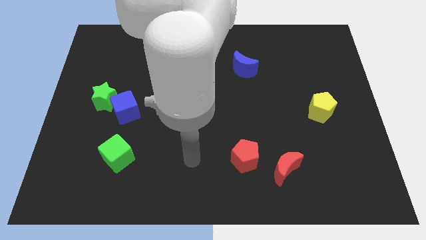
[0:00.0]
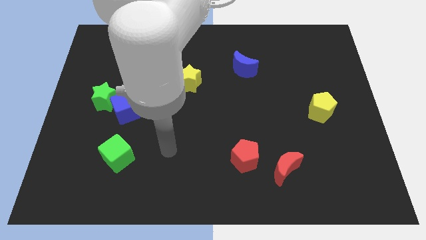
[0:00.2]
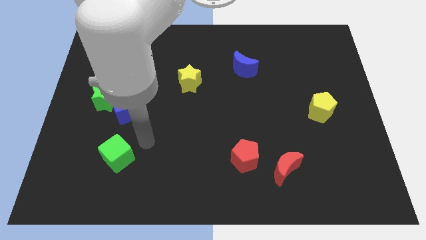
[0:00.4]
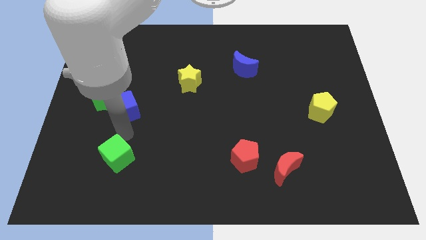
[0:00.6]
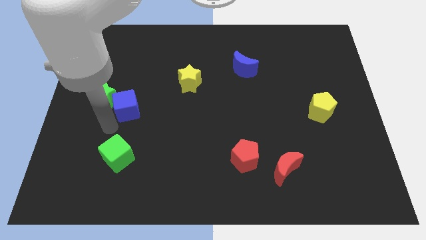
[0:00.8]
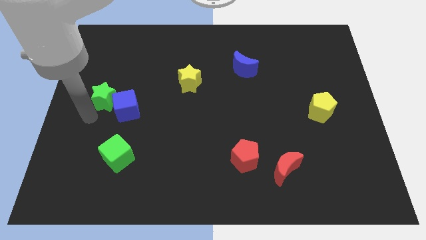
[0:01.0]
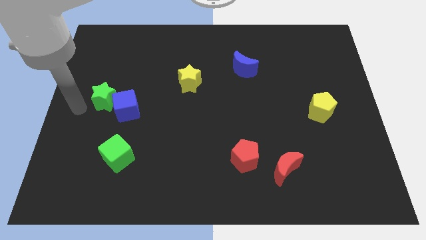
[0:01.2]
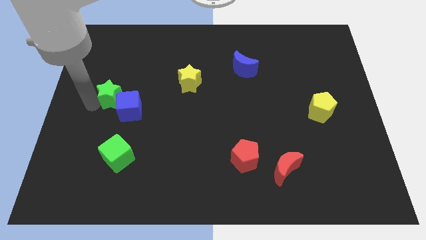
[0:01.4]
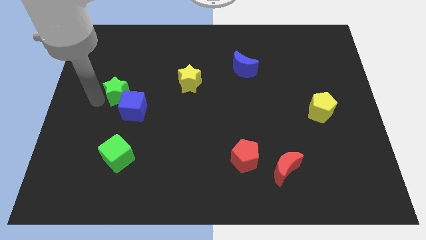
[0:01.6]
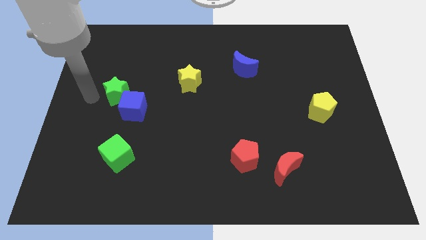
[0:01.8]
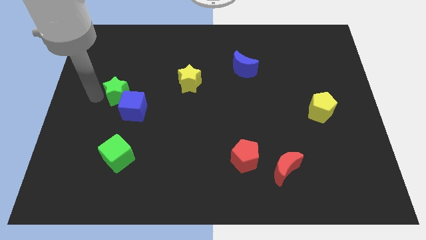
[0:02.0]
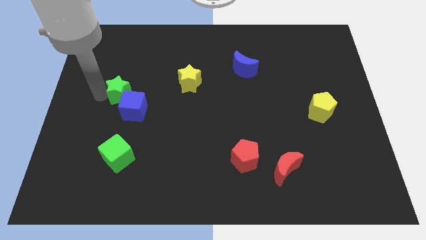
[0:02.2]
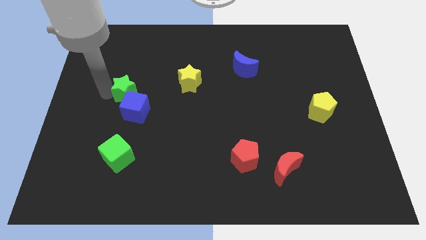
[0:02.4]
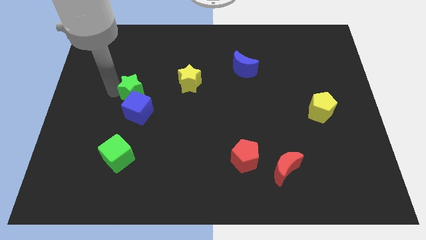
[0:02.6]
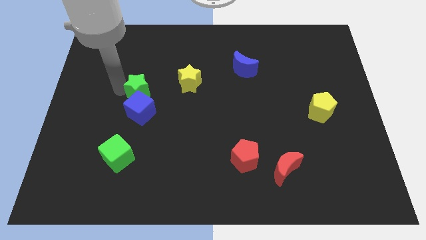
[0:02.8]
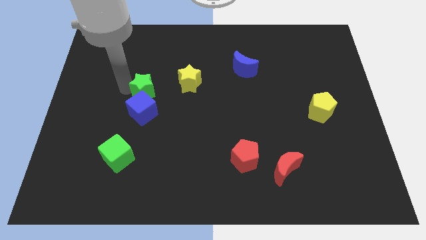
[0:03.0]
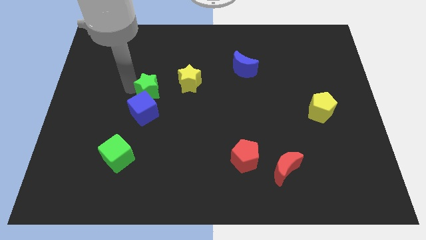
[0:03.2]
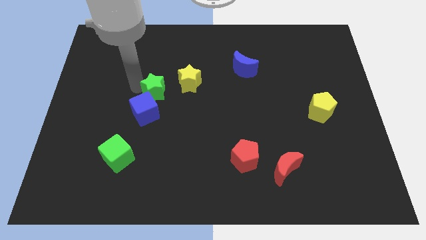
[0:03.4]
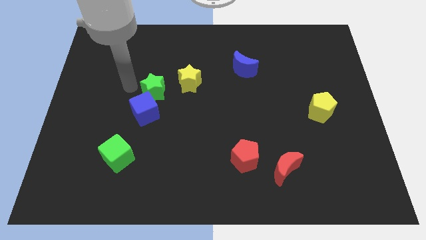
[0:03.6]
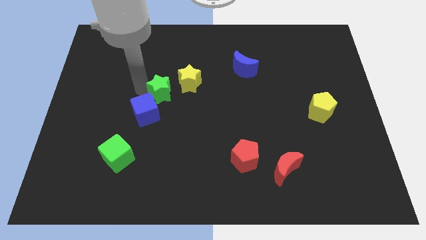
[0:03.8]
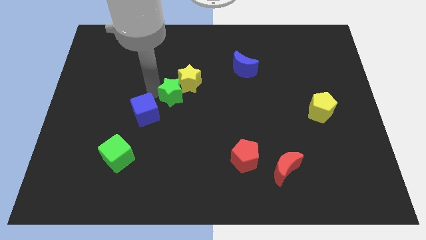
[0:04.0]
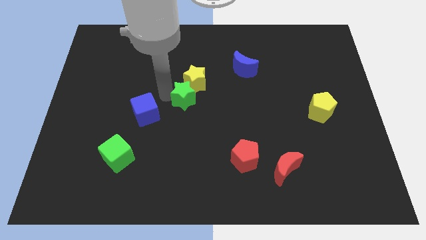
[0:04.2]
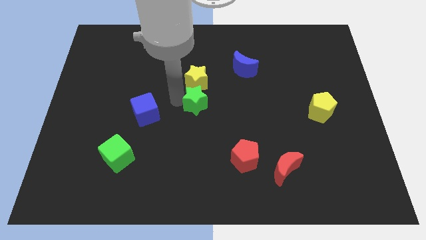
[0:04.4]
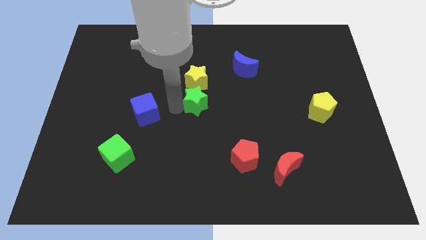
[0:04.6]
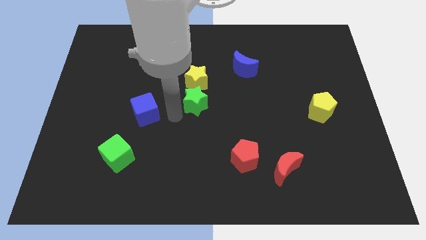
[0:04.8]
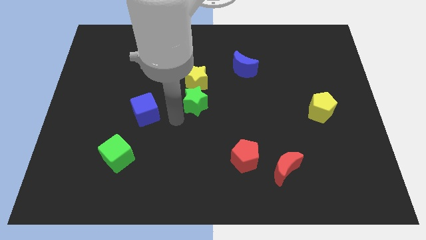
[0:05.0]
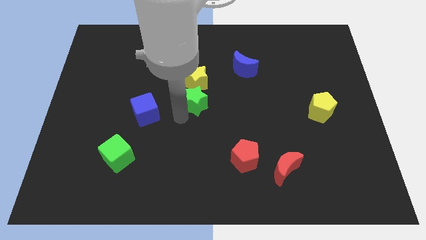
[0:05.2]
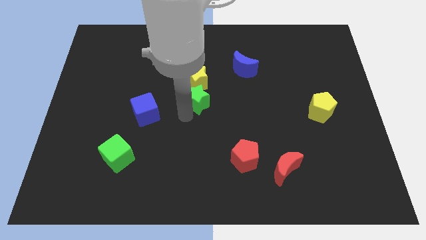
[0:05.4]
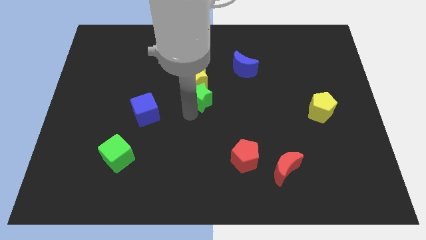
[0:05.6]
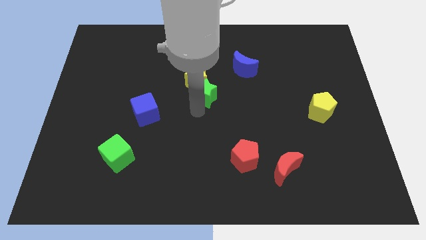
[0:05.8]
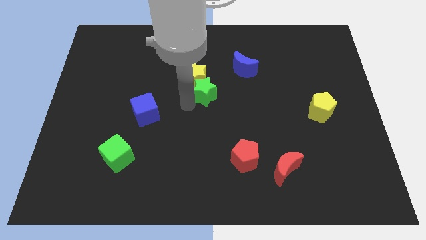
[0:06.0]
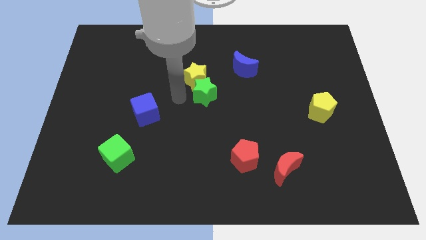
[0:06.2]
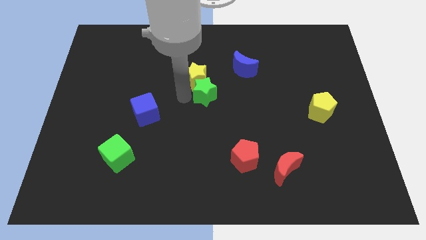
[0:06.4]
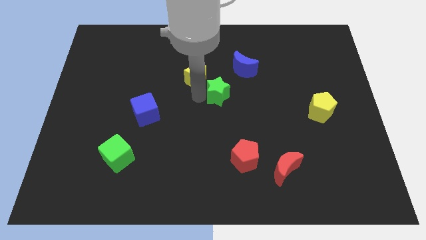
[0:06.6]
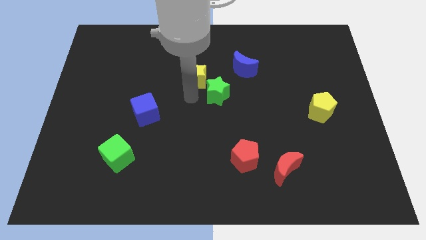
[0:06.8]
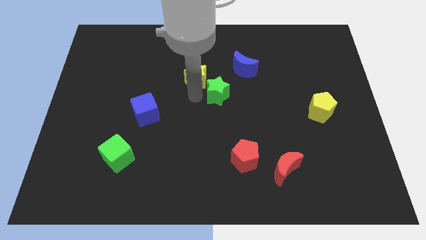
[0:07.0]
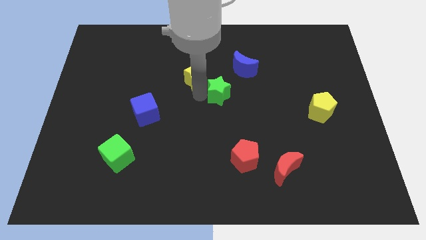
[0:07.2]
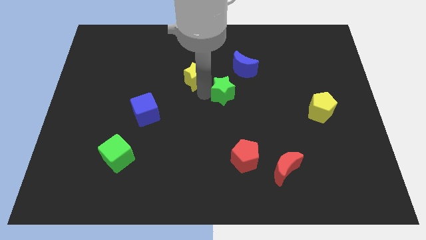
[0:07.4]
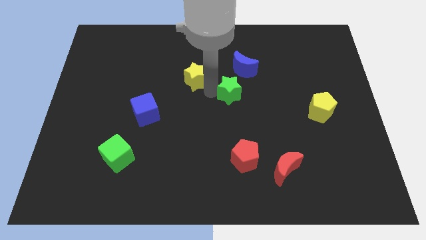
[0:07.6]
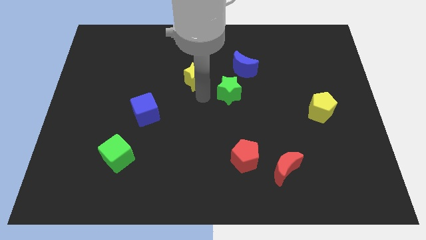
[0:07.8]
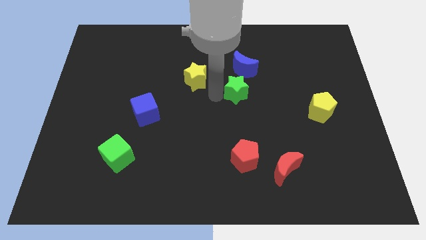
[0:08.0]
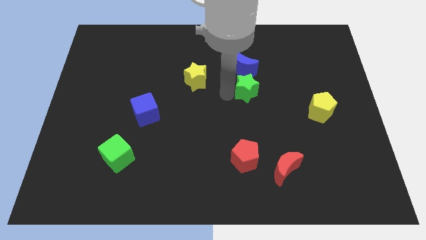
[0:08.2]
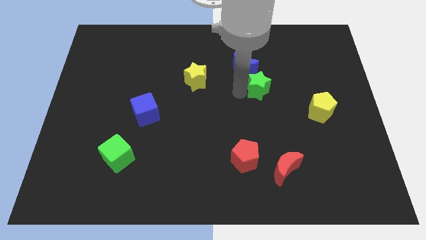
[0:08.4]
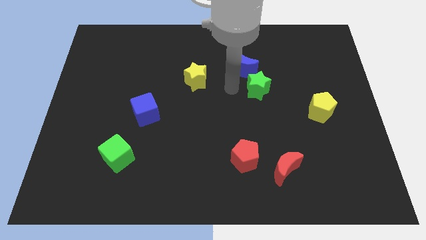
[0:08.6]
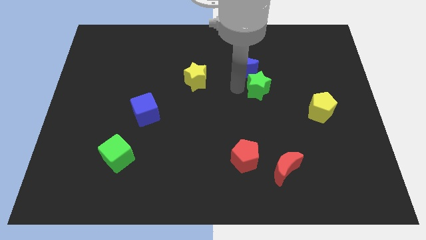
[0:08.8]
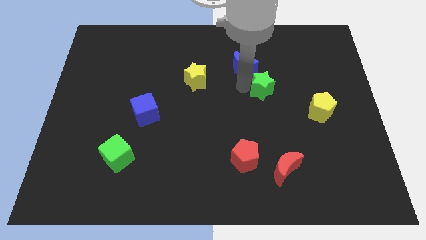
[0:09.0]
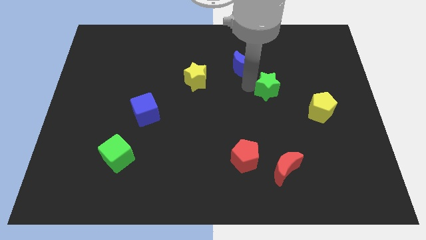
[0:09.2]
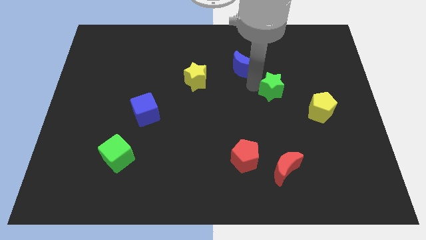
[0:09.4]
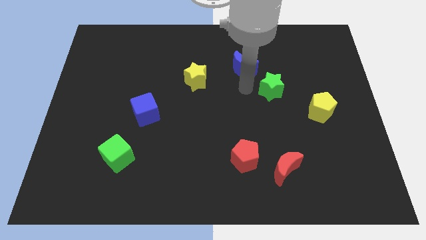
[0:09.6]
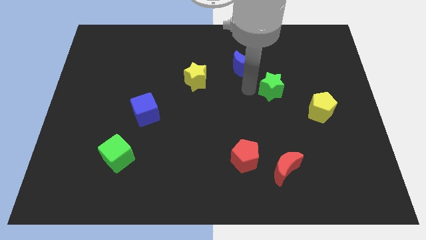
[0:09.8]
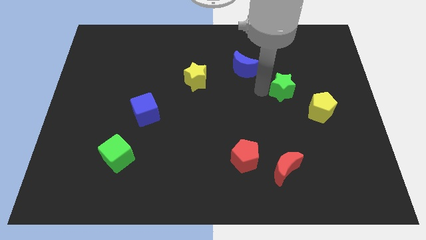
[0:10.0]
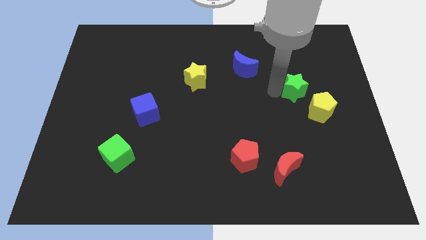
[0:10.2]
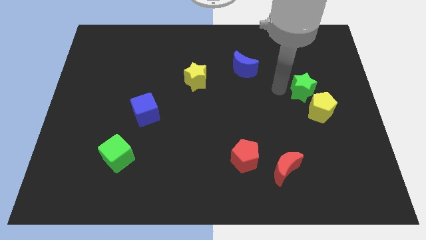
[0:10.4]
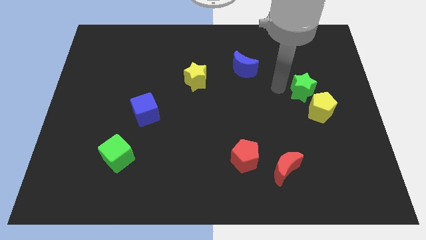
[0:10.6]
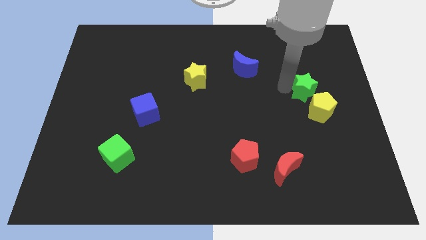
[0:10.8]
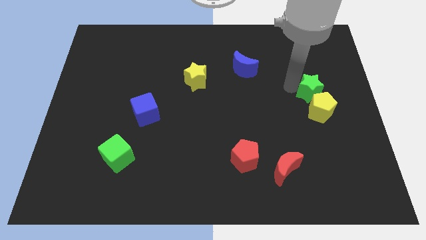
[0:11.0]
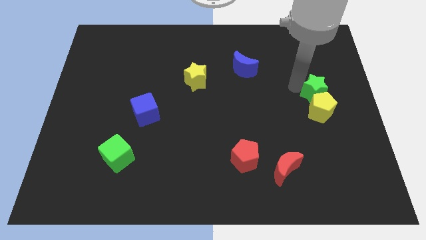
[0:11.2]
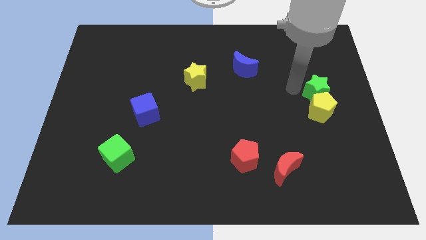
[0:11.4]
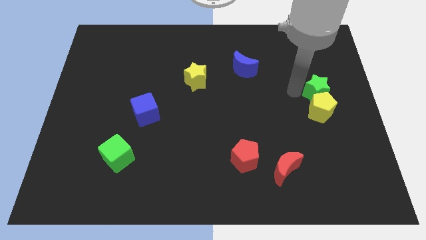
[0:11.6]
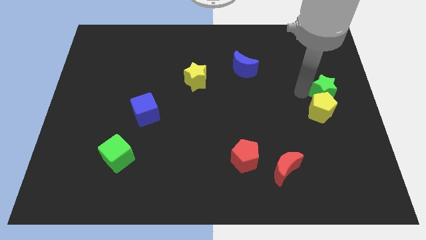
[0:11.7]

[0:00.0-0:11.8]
put the green star to the center right

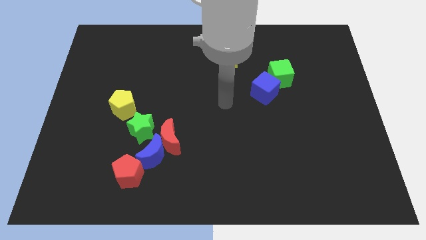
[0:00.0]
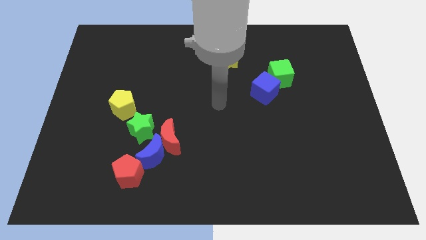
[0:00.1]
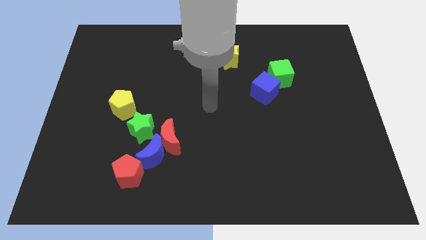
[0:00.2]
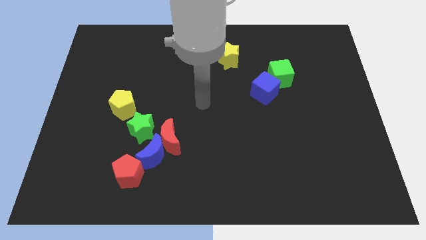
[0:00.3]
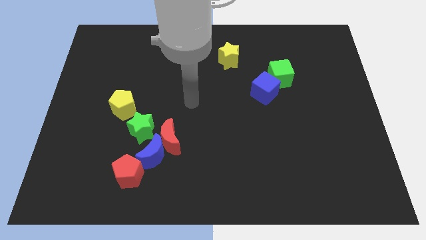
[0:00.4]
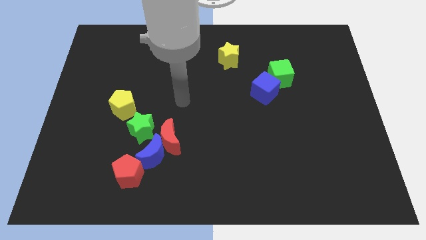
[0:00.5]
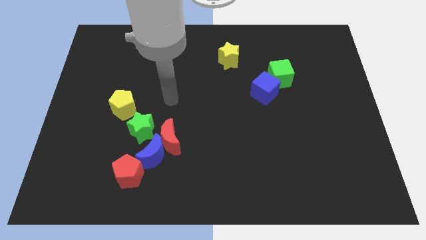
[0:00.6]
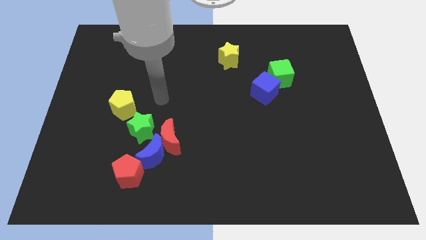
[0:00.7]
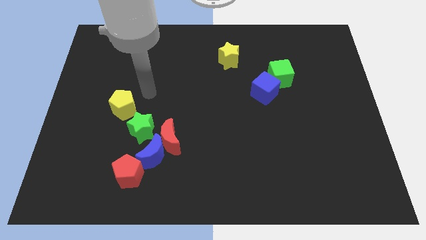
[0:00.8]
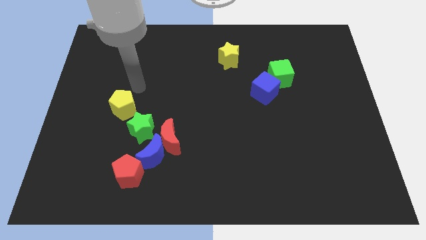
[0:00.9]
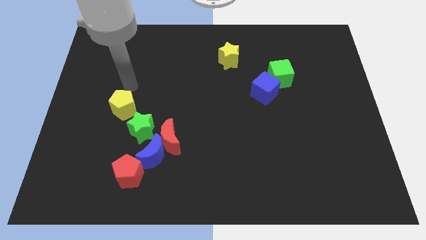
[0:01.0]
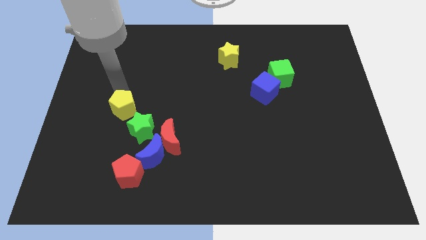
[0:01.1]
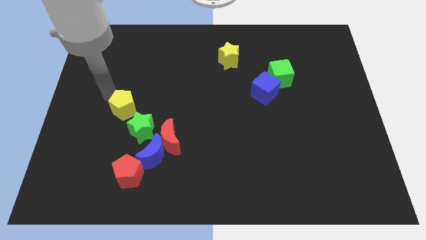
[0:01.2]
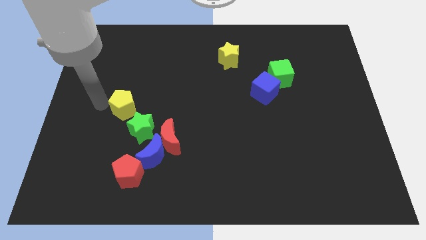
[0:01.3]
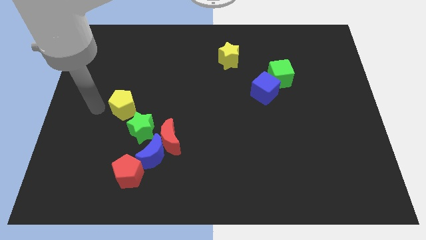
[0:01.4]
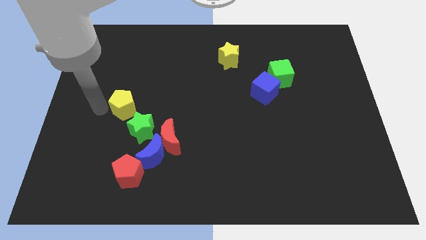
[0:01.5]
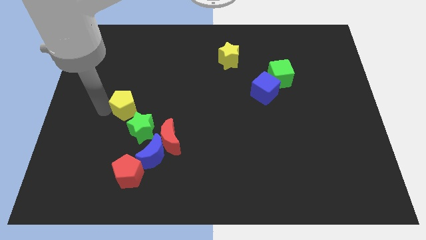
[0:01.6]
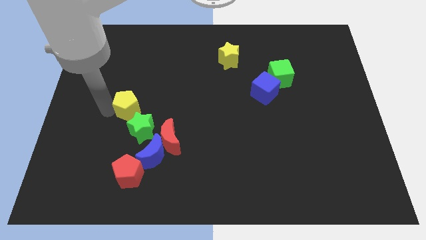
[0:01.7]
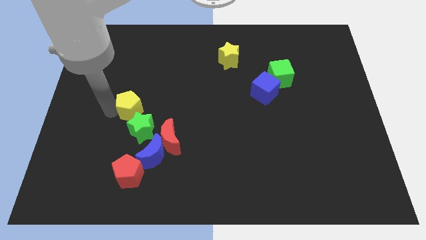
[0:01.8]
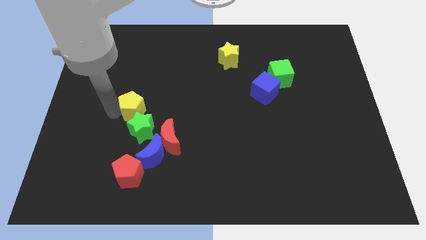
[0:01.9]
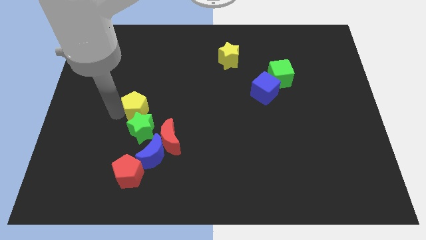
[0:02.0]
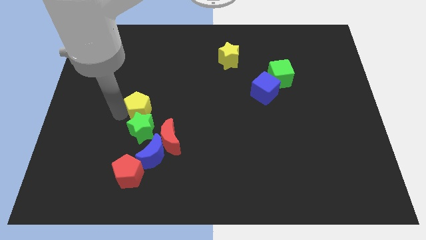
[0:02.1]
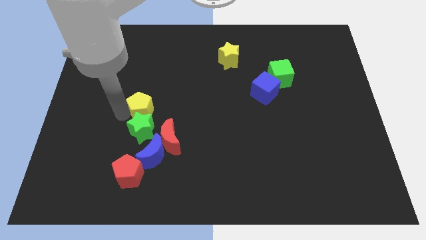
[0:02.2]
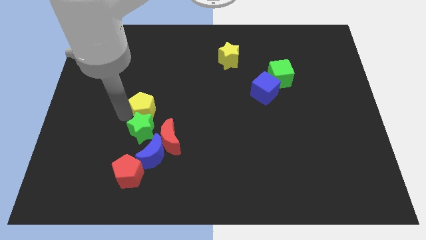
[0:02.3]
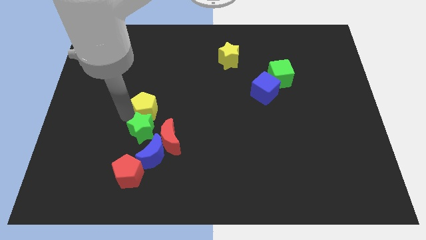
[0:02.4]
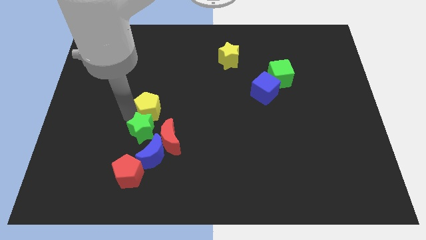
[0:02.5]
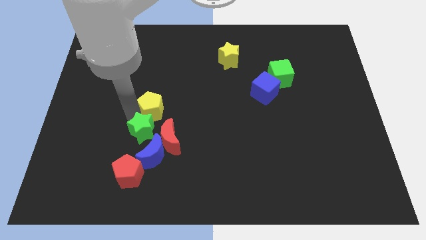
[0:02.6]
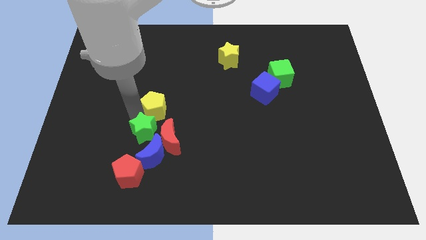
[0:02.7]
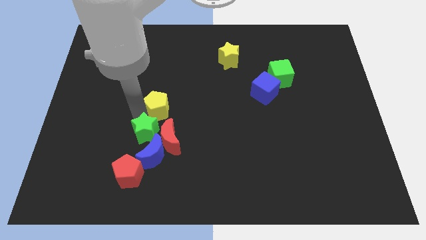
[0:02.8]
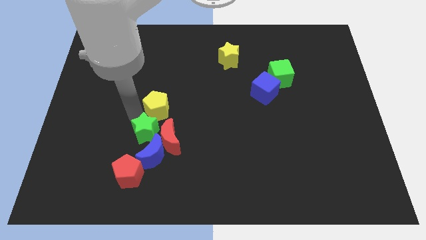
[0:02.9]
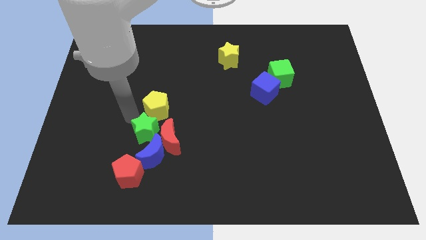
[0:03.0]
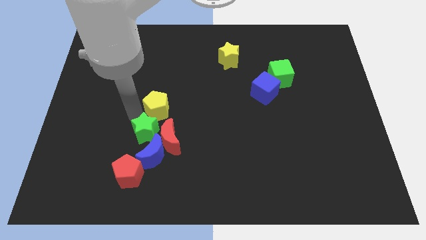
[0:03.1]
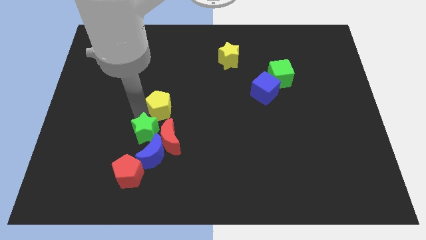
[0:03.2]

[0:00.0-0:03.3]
move the yellow pentagon to the center
